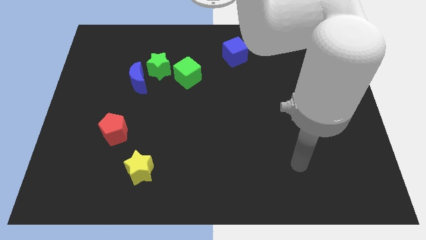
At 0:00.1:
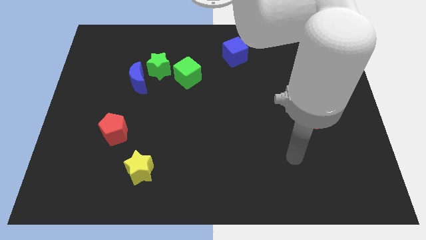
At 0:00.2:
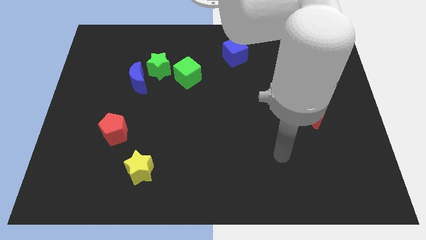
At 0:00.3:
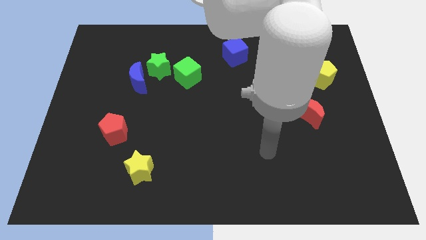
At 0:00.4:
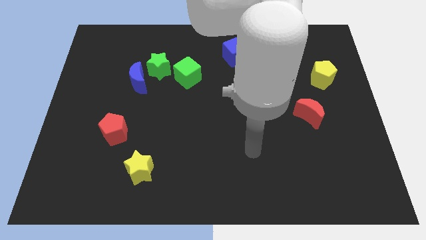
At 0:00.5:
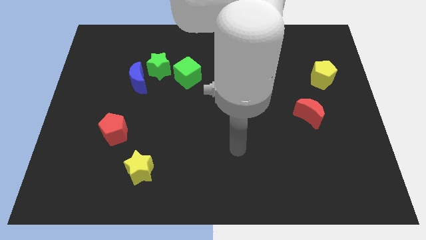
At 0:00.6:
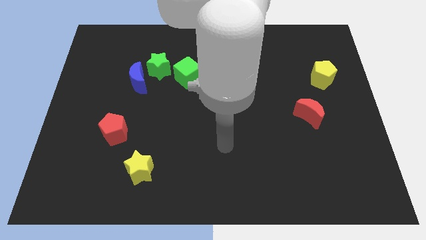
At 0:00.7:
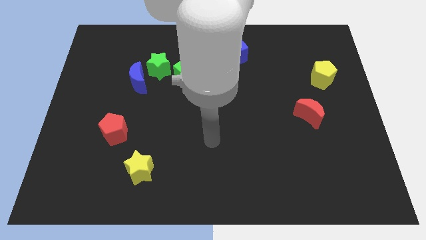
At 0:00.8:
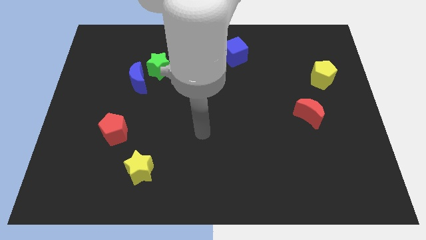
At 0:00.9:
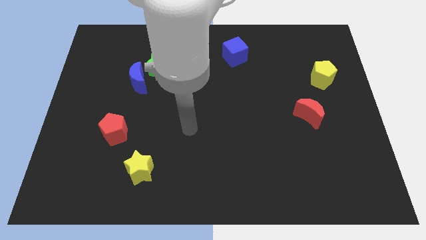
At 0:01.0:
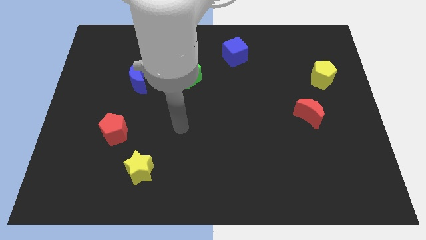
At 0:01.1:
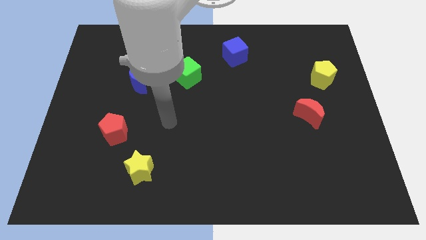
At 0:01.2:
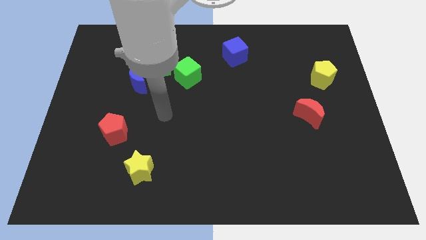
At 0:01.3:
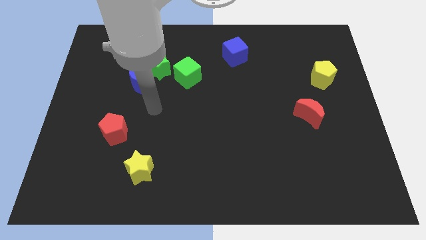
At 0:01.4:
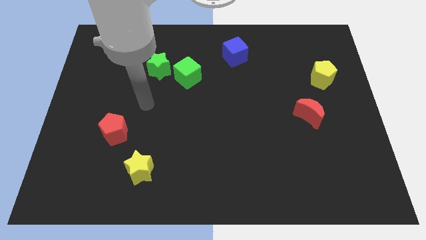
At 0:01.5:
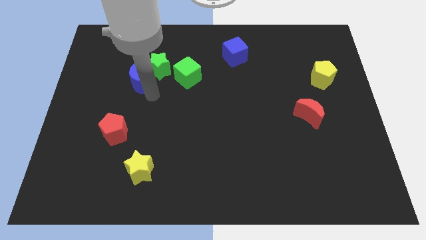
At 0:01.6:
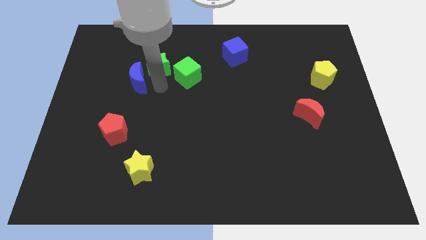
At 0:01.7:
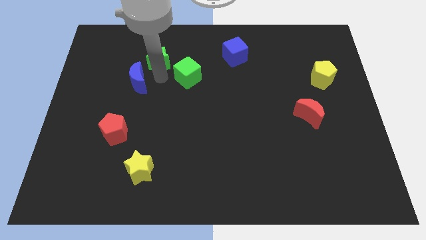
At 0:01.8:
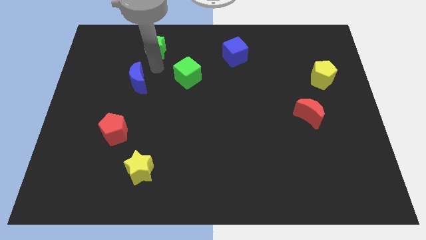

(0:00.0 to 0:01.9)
move the blue moon away from the green star

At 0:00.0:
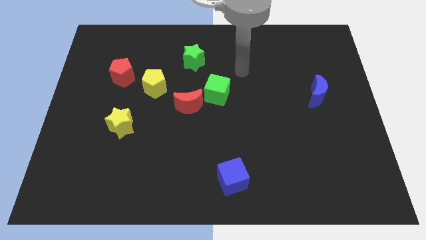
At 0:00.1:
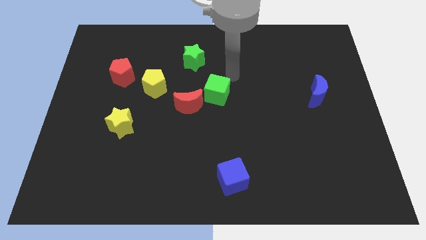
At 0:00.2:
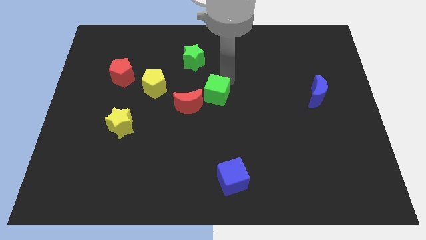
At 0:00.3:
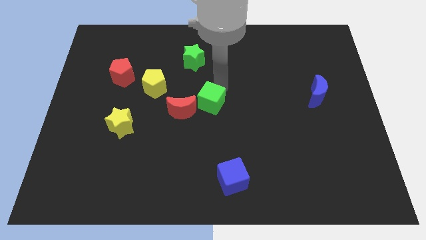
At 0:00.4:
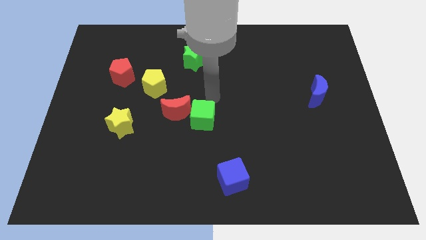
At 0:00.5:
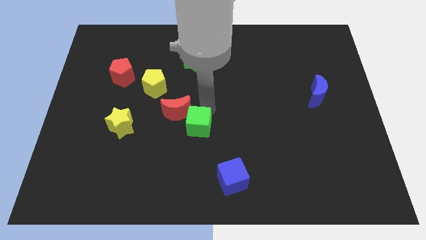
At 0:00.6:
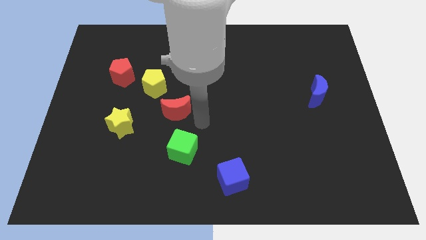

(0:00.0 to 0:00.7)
separate the red moon from the green cube

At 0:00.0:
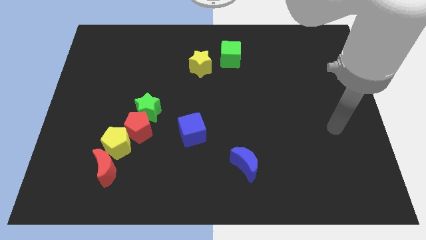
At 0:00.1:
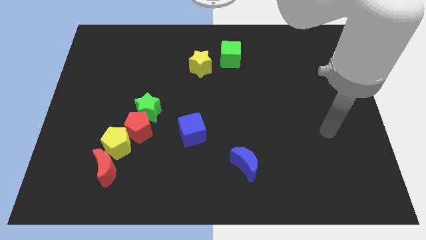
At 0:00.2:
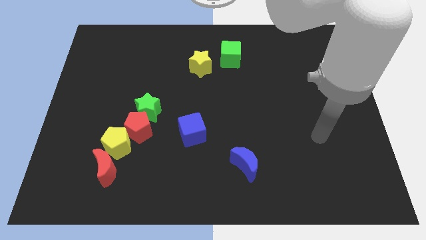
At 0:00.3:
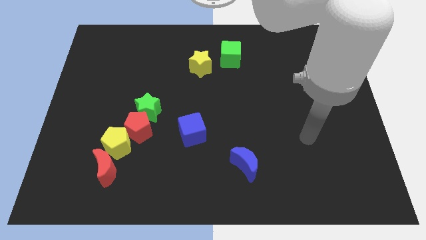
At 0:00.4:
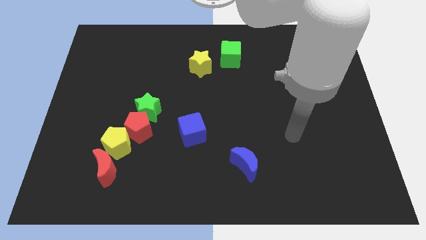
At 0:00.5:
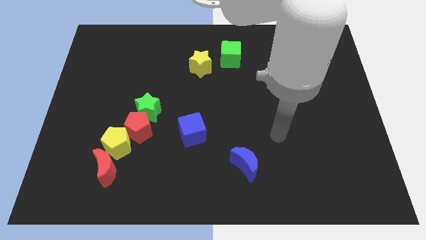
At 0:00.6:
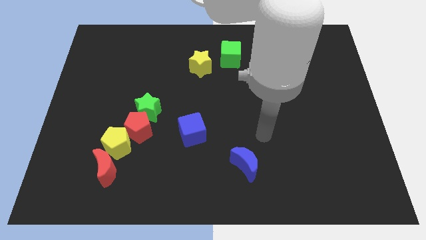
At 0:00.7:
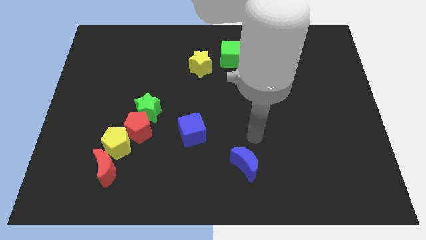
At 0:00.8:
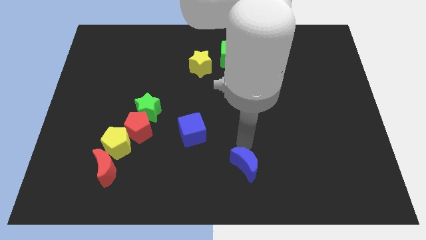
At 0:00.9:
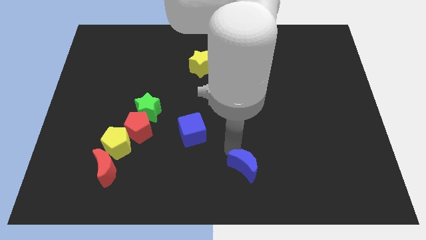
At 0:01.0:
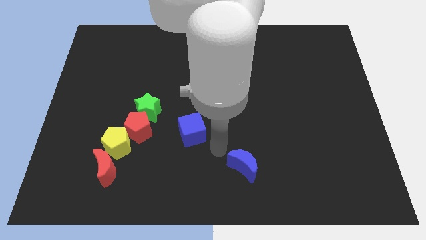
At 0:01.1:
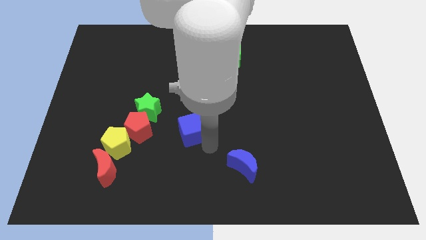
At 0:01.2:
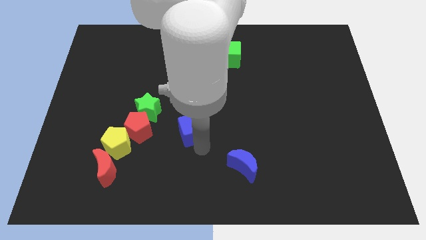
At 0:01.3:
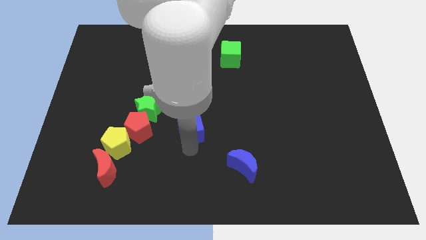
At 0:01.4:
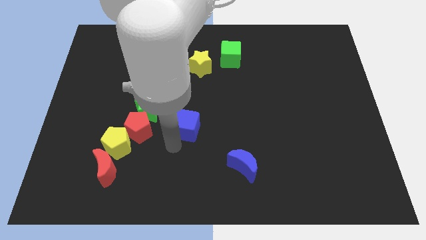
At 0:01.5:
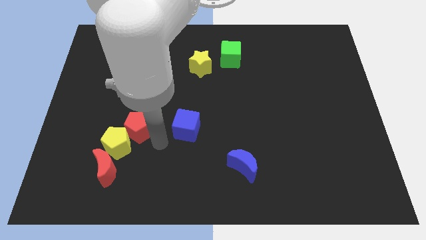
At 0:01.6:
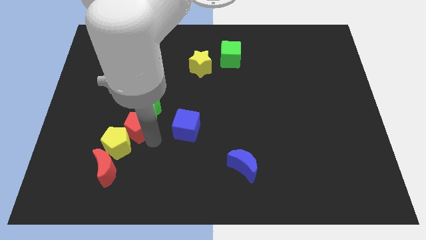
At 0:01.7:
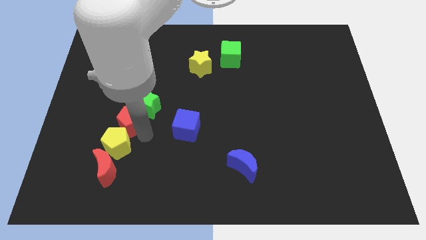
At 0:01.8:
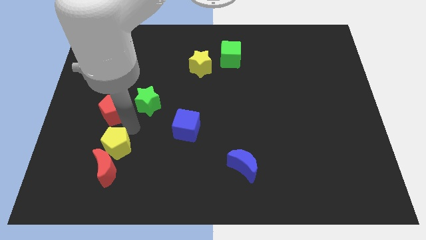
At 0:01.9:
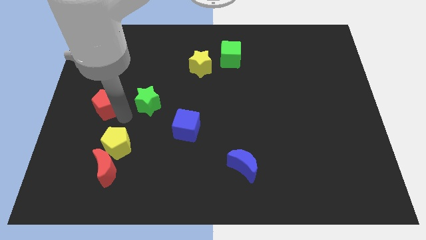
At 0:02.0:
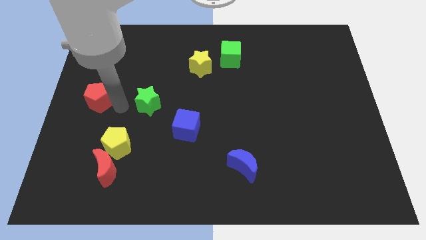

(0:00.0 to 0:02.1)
move the green star away from the red pentagon

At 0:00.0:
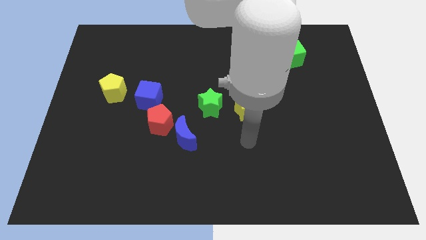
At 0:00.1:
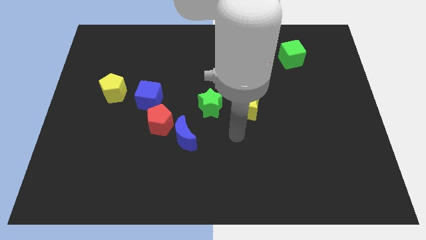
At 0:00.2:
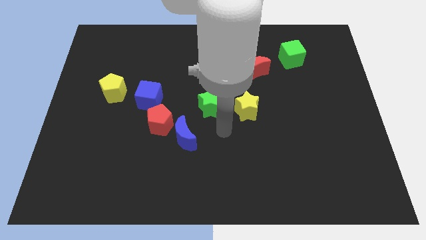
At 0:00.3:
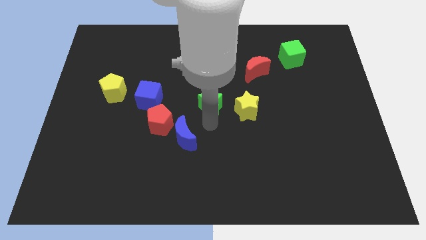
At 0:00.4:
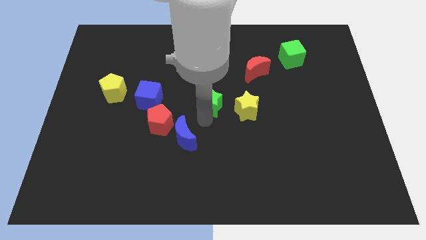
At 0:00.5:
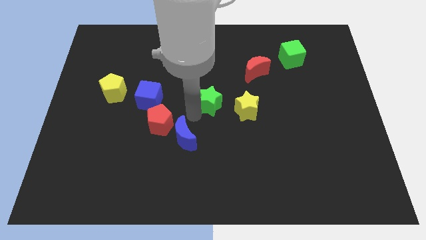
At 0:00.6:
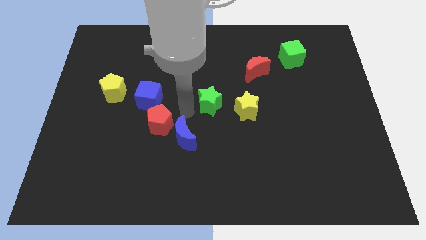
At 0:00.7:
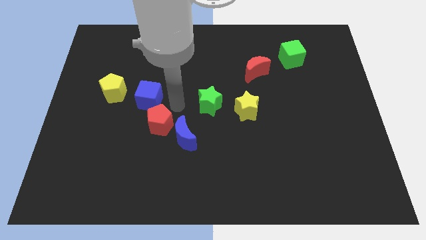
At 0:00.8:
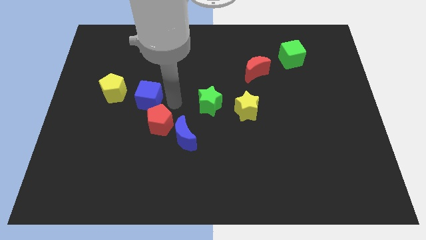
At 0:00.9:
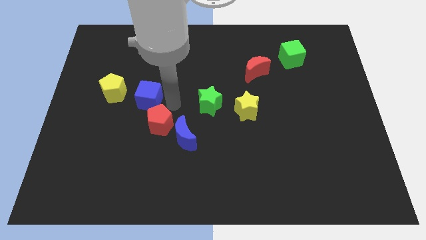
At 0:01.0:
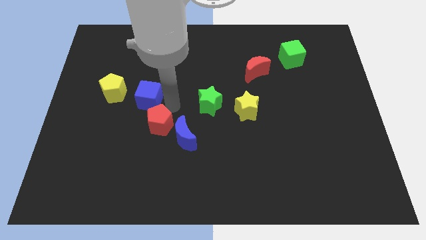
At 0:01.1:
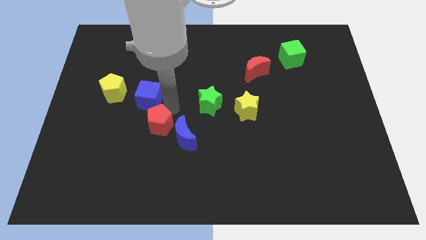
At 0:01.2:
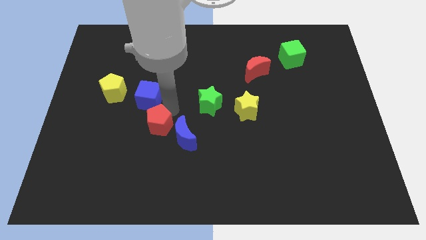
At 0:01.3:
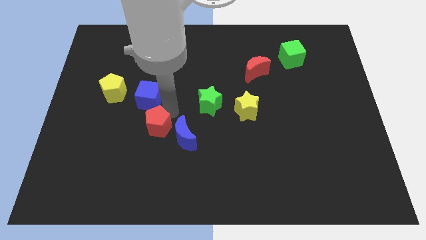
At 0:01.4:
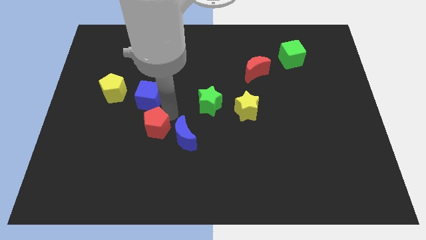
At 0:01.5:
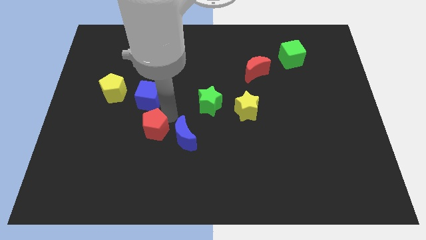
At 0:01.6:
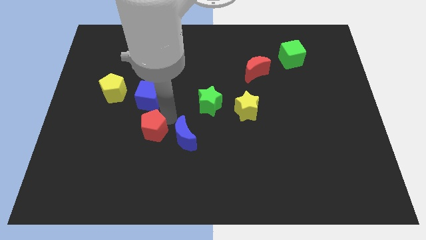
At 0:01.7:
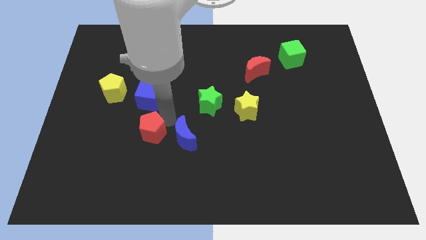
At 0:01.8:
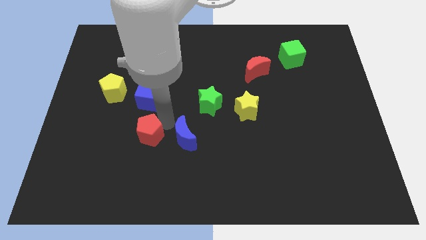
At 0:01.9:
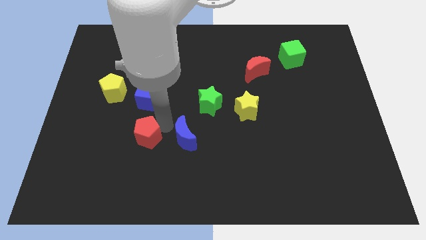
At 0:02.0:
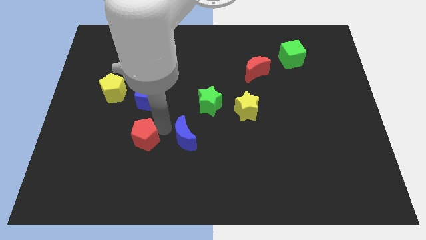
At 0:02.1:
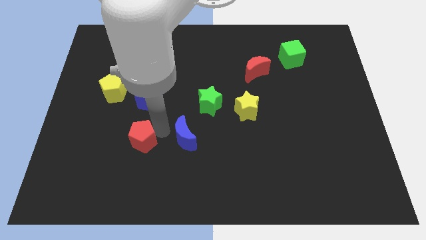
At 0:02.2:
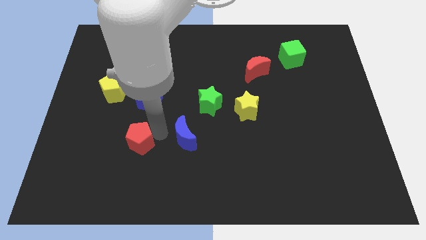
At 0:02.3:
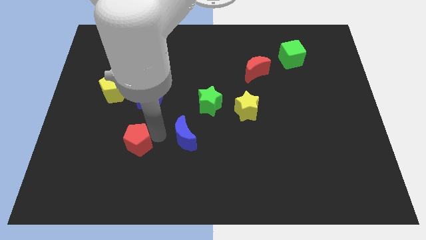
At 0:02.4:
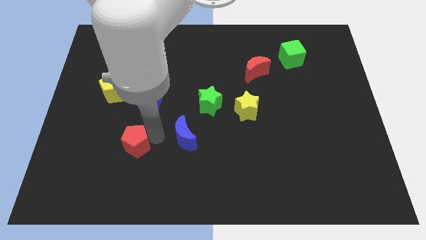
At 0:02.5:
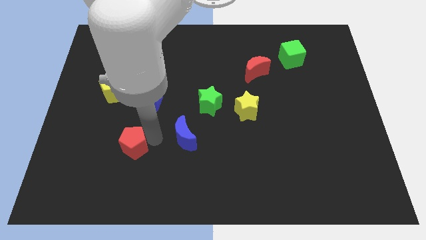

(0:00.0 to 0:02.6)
move the red pentagon away from the blue moon and blue cube

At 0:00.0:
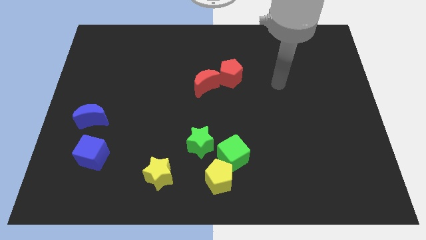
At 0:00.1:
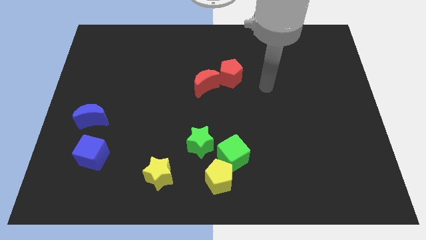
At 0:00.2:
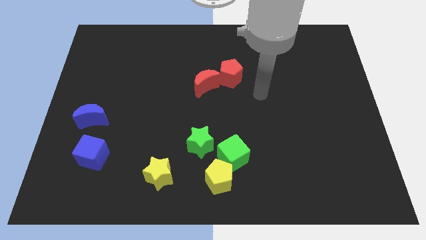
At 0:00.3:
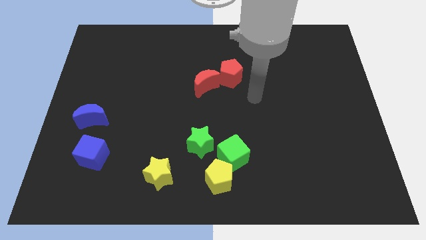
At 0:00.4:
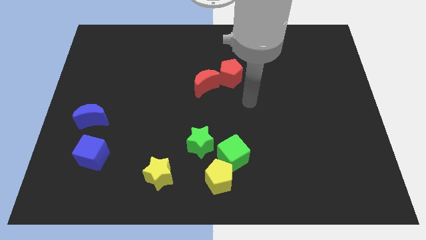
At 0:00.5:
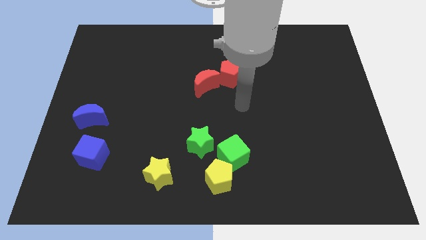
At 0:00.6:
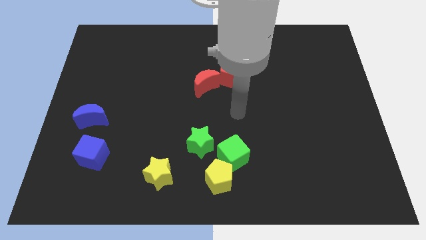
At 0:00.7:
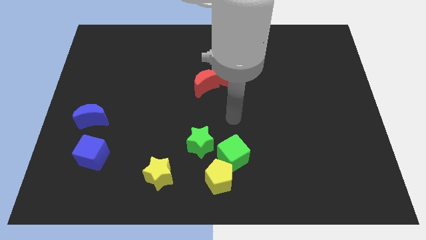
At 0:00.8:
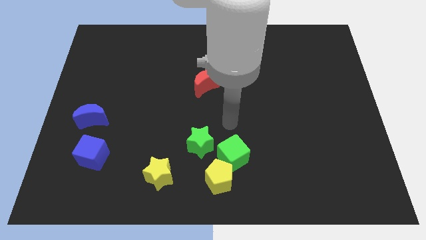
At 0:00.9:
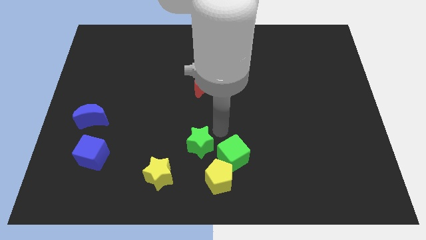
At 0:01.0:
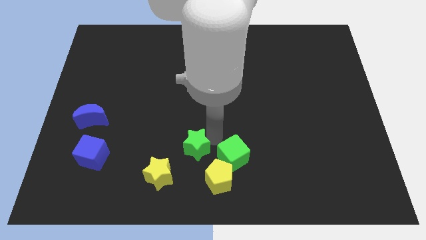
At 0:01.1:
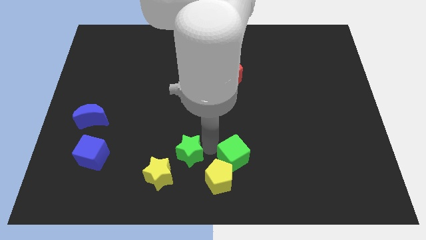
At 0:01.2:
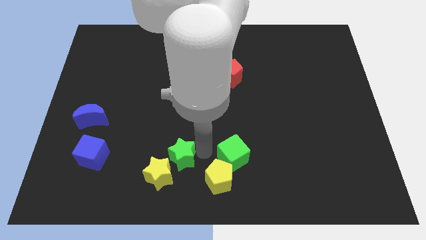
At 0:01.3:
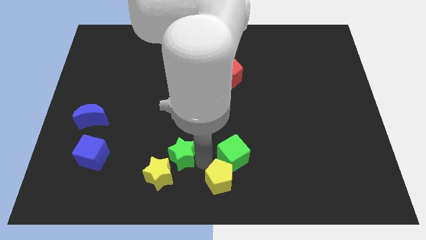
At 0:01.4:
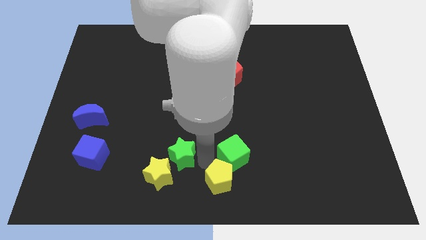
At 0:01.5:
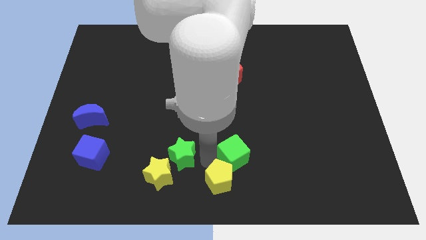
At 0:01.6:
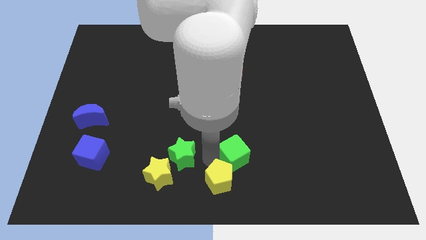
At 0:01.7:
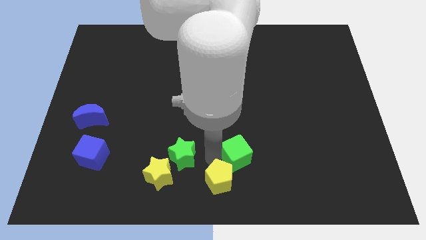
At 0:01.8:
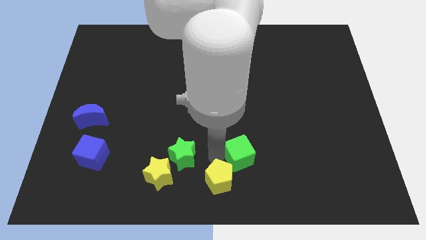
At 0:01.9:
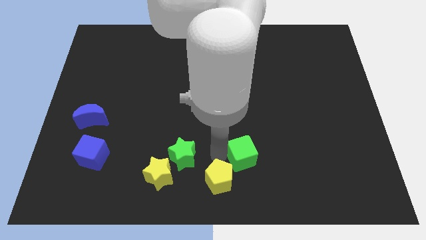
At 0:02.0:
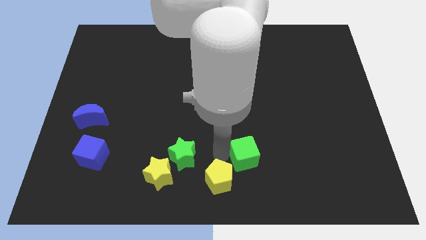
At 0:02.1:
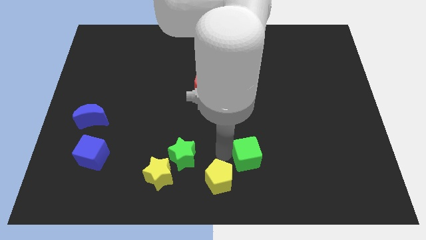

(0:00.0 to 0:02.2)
move the green cube away from the yellow pentagon and green star
